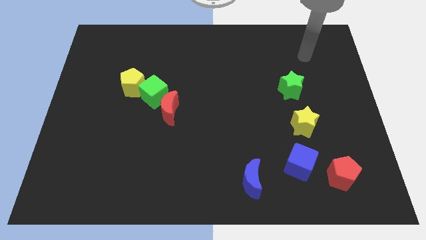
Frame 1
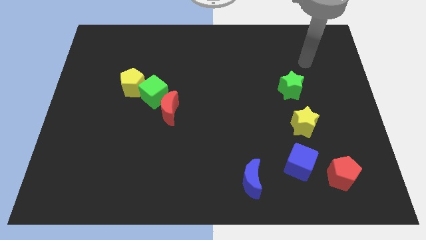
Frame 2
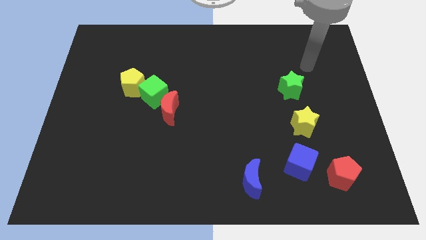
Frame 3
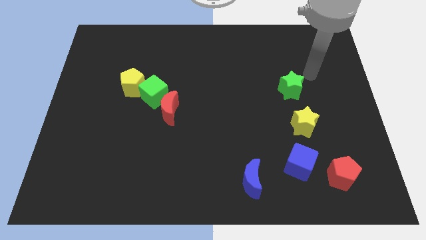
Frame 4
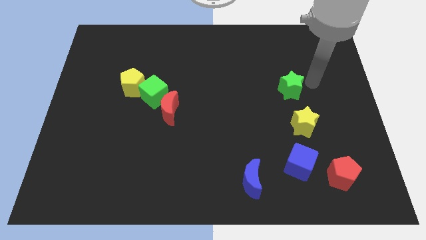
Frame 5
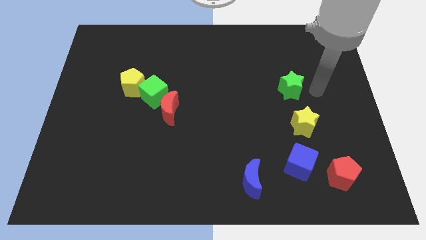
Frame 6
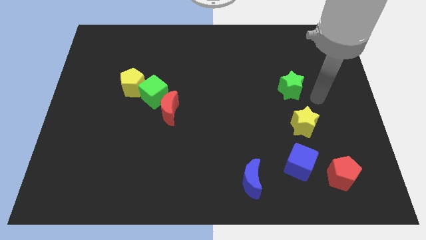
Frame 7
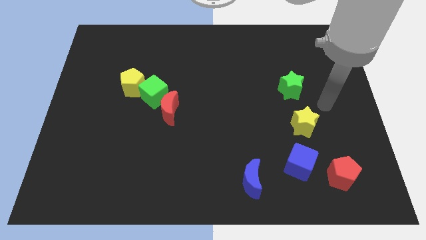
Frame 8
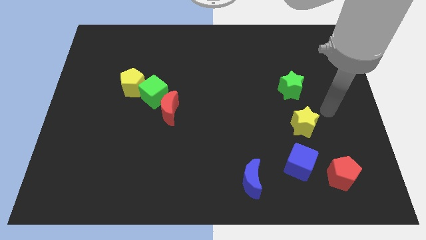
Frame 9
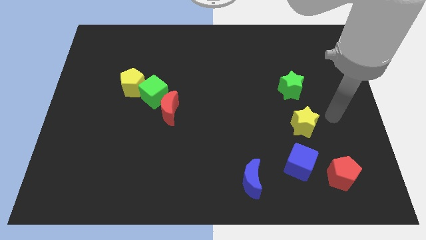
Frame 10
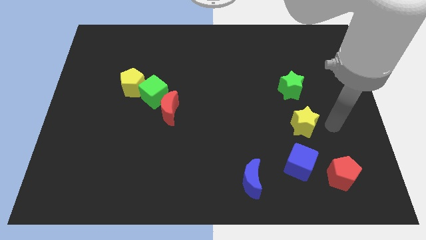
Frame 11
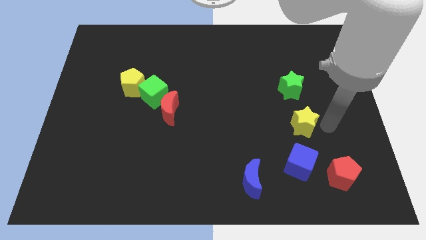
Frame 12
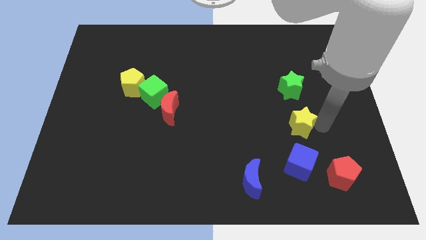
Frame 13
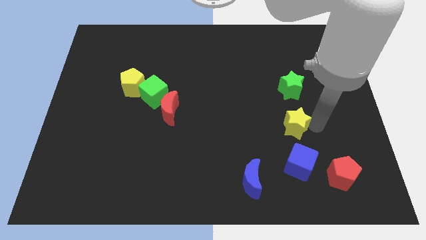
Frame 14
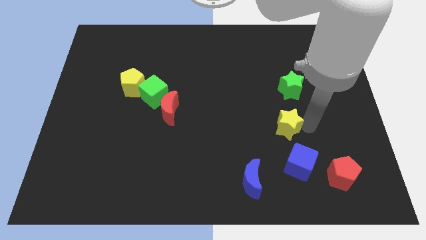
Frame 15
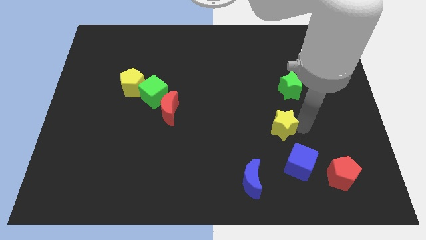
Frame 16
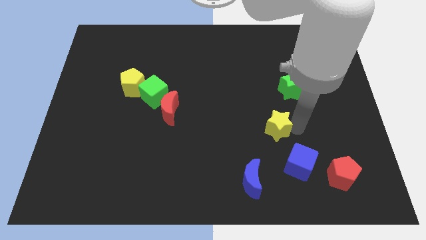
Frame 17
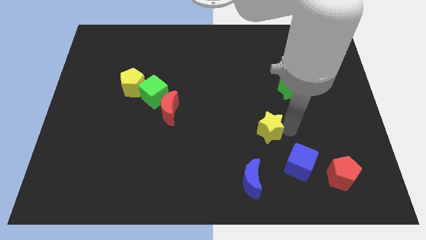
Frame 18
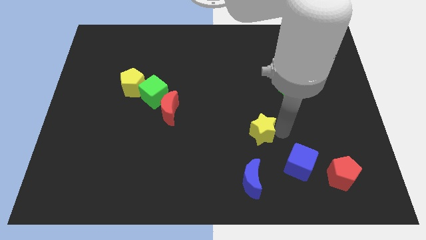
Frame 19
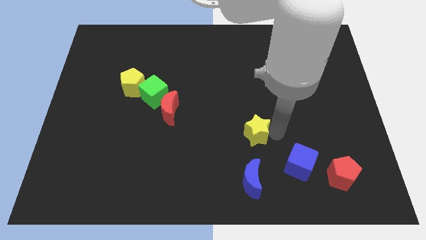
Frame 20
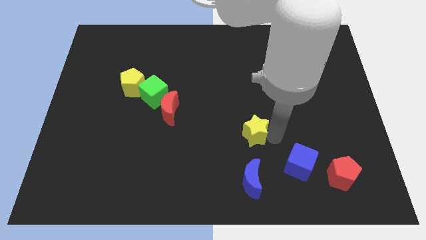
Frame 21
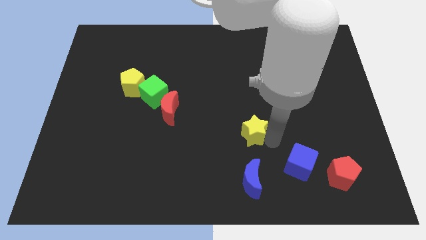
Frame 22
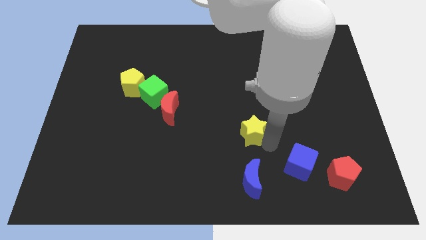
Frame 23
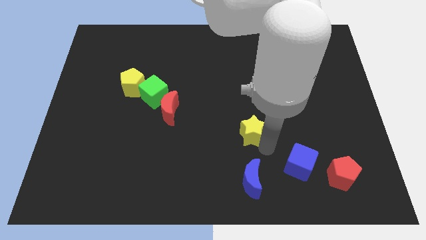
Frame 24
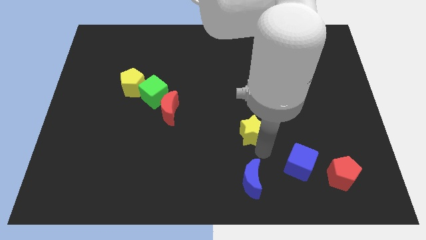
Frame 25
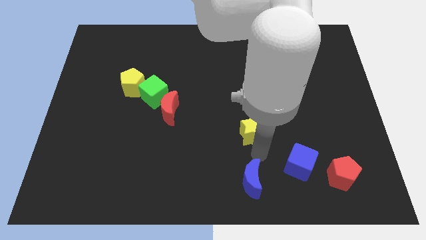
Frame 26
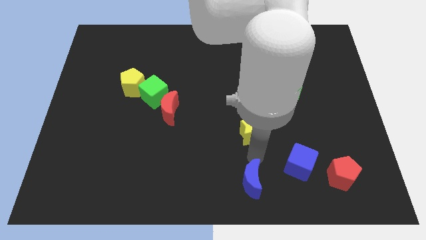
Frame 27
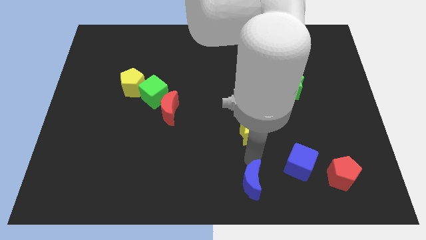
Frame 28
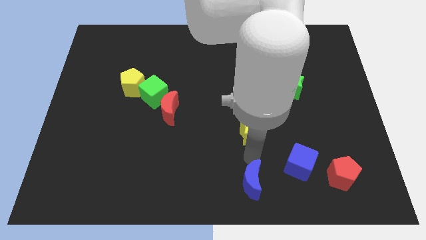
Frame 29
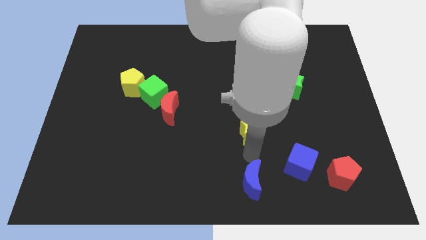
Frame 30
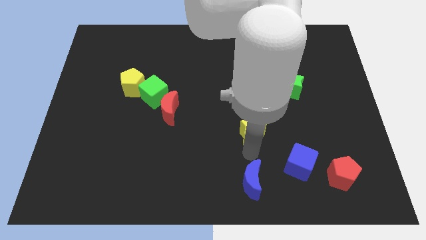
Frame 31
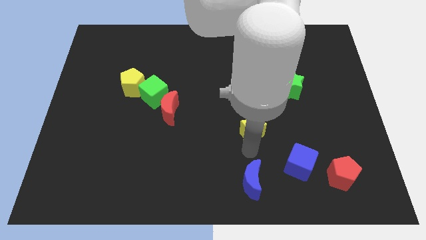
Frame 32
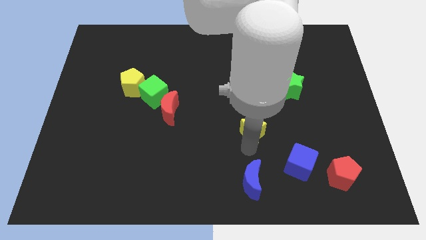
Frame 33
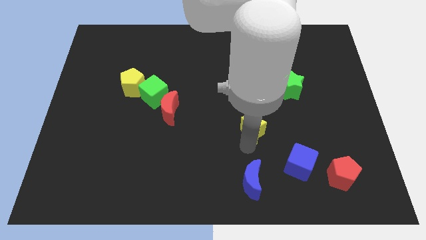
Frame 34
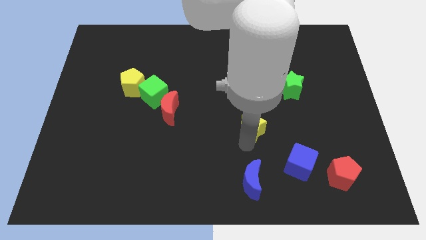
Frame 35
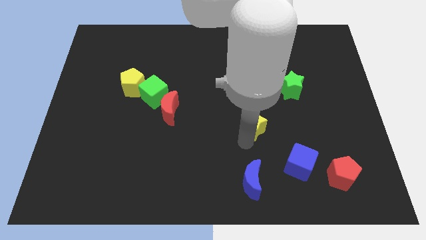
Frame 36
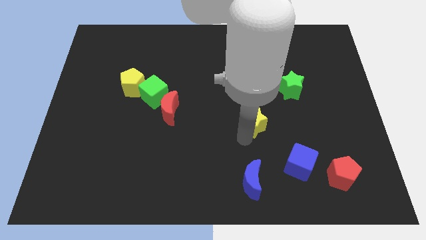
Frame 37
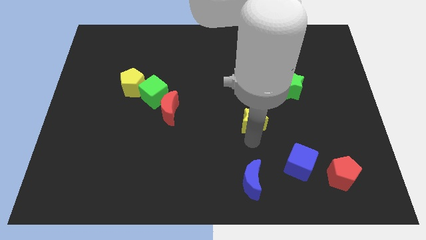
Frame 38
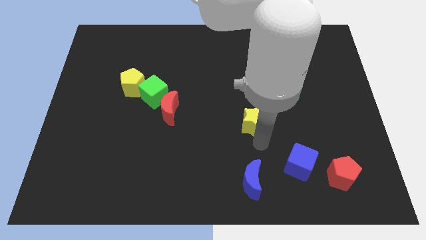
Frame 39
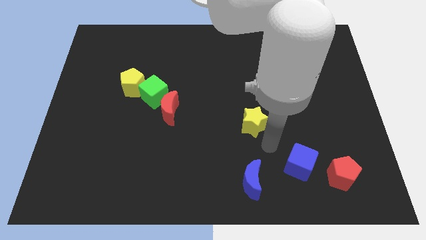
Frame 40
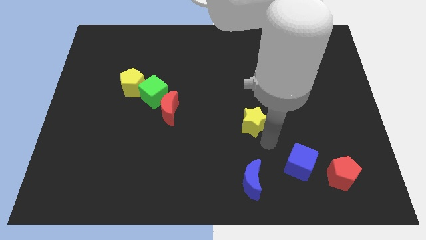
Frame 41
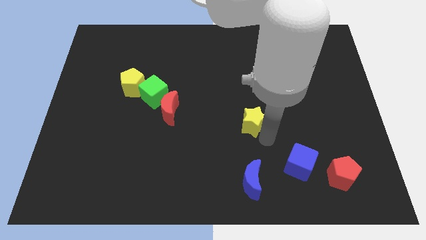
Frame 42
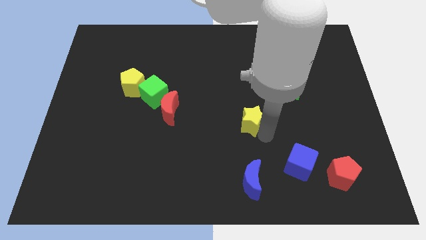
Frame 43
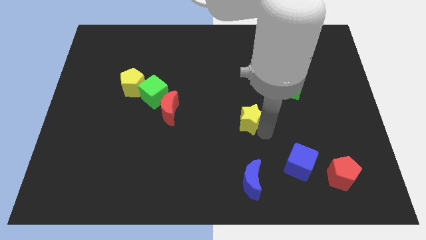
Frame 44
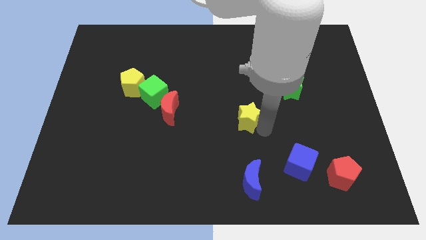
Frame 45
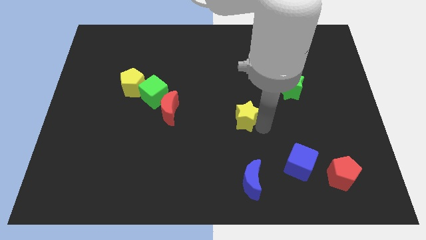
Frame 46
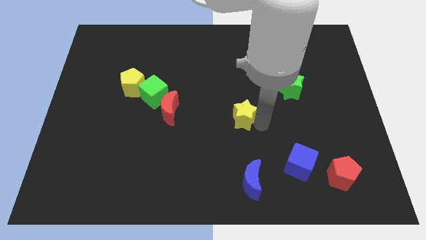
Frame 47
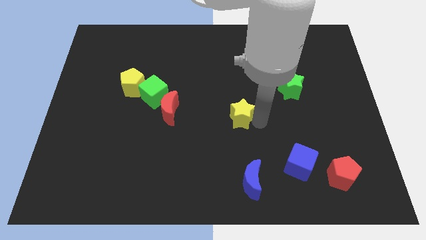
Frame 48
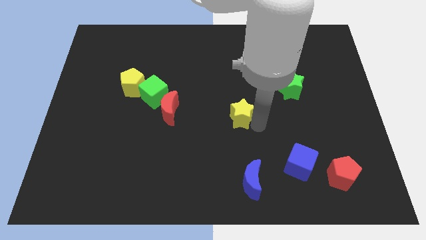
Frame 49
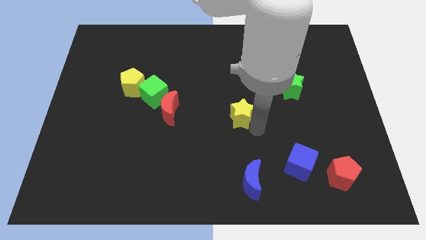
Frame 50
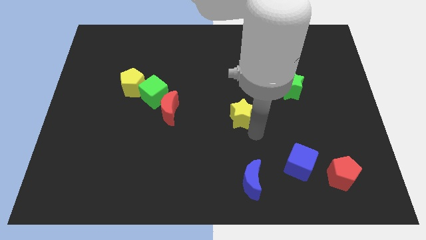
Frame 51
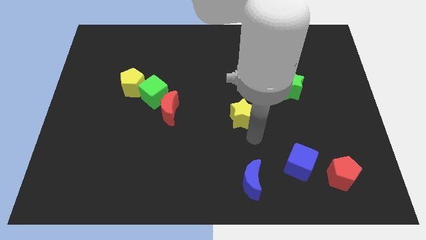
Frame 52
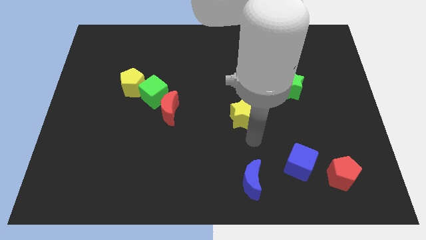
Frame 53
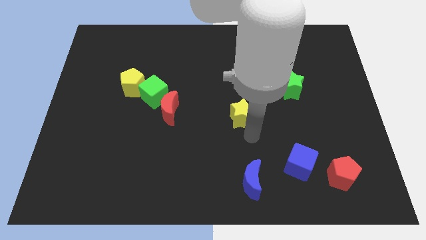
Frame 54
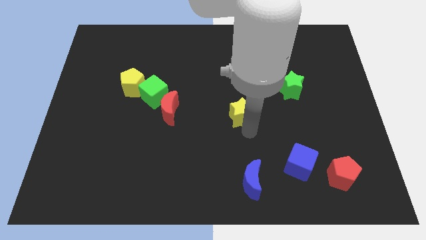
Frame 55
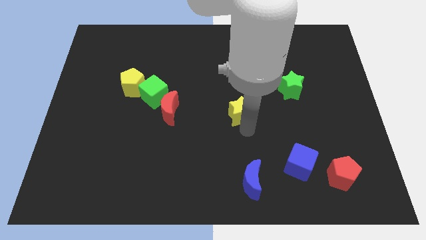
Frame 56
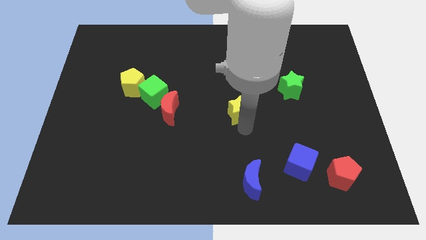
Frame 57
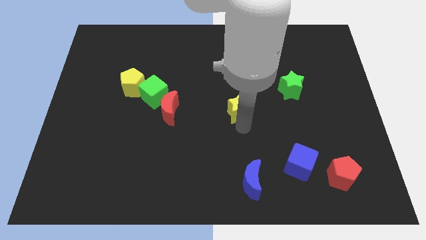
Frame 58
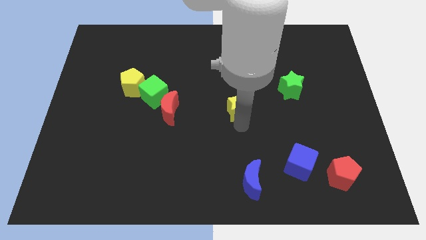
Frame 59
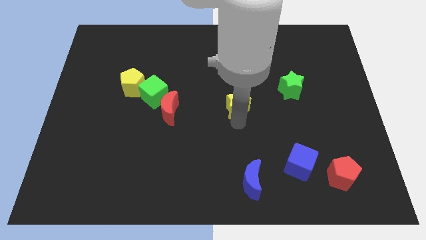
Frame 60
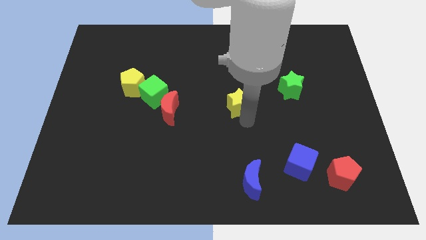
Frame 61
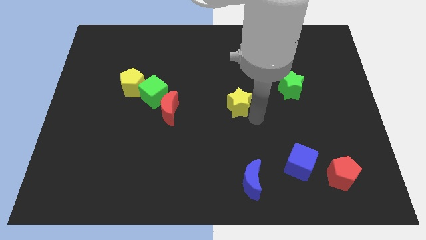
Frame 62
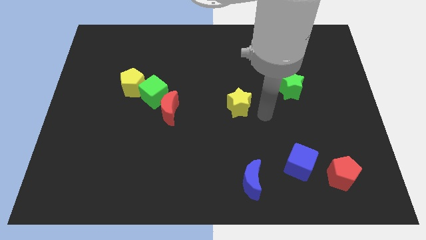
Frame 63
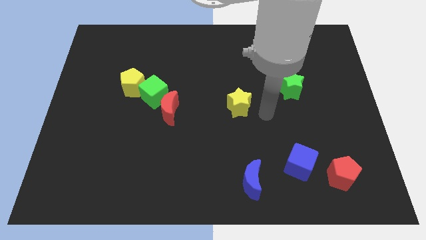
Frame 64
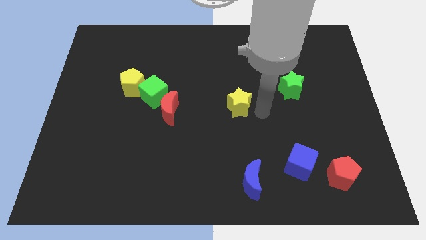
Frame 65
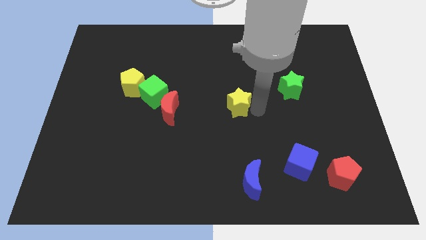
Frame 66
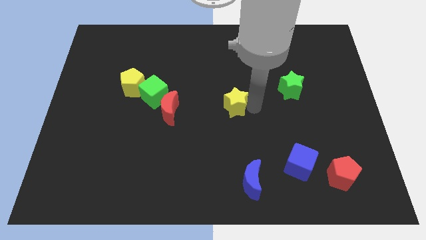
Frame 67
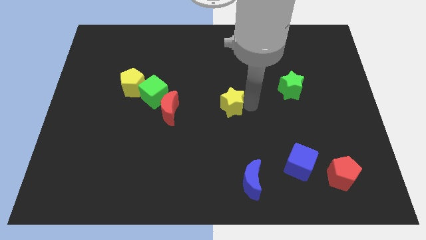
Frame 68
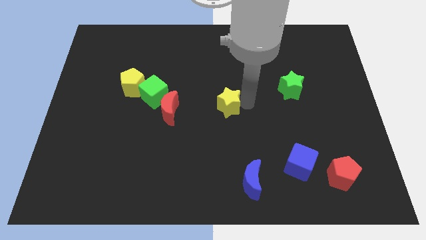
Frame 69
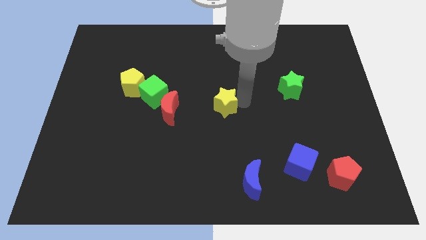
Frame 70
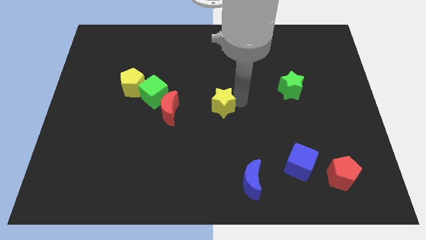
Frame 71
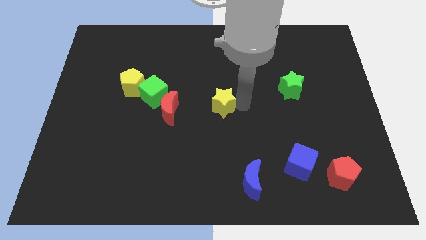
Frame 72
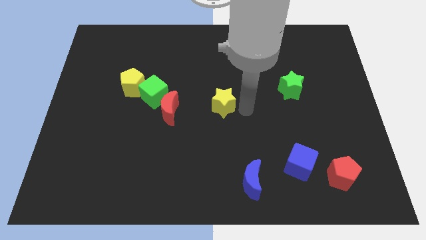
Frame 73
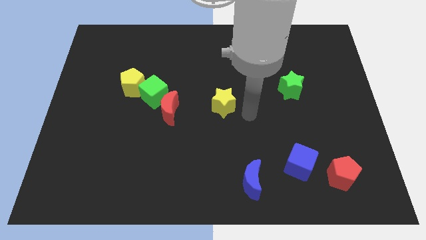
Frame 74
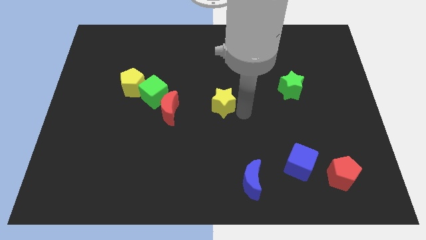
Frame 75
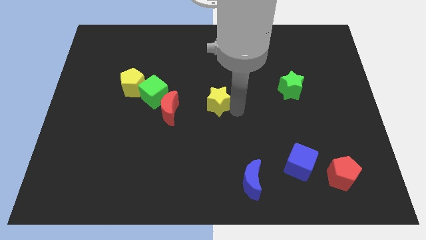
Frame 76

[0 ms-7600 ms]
slide the yellow star to the right of the green cube
